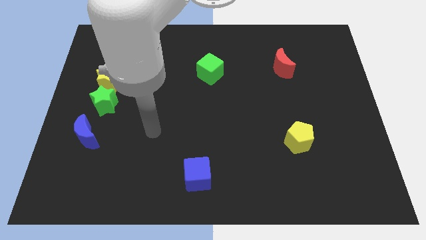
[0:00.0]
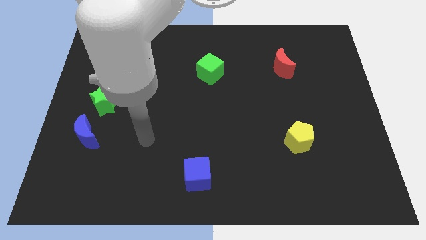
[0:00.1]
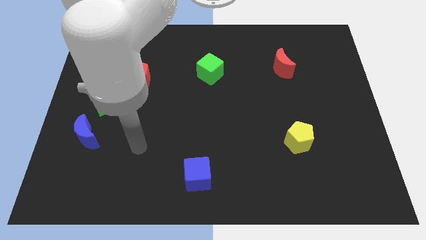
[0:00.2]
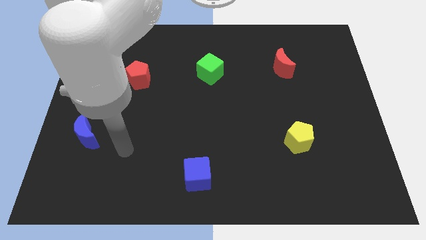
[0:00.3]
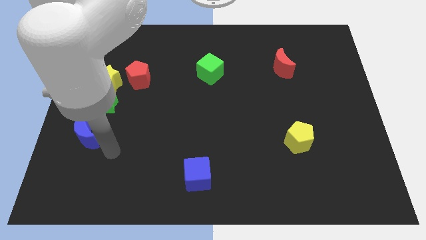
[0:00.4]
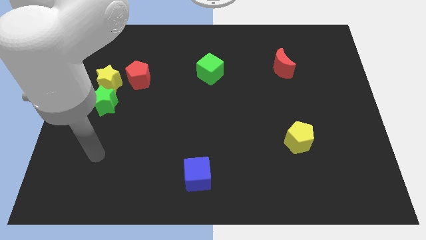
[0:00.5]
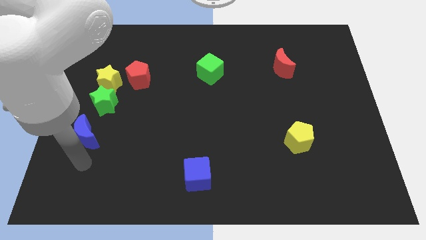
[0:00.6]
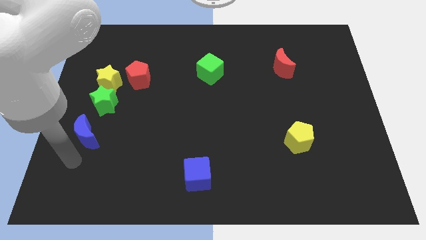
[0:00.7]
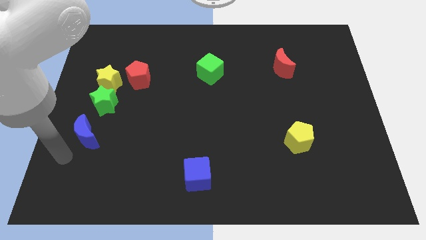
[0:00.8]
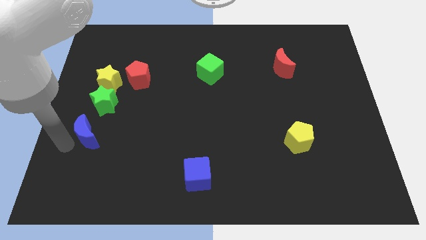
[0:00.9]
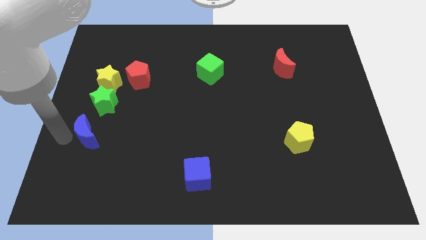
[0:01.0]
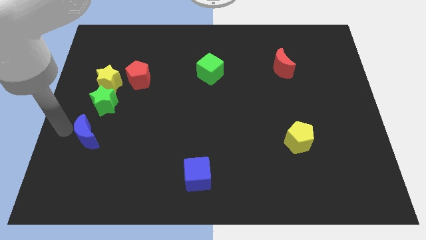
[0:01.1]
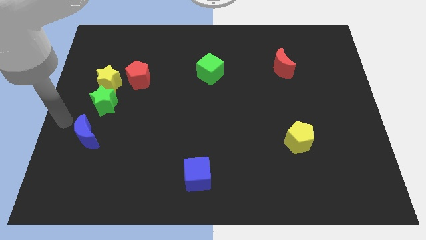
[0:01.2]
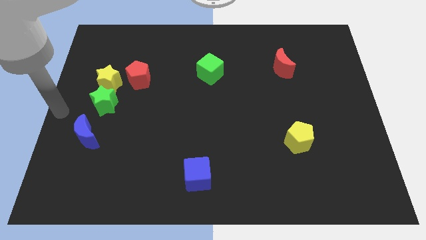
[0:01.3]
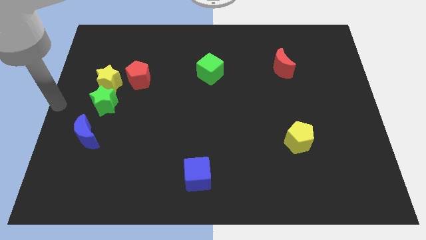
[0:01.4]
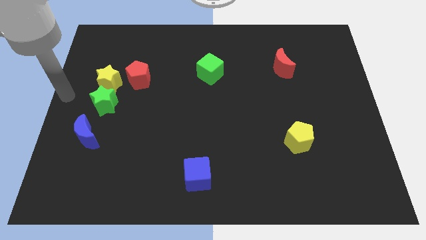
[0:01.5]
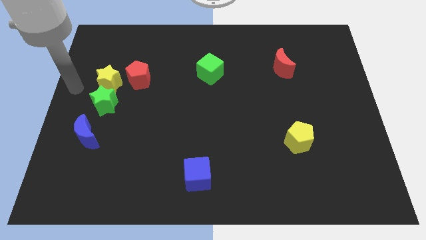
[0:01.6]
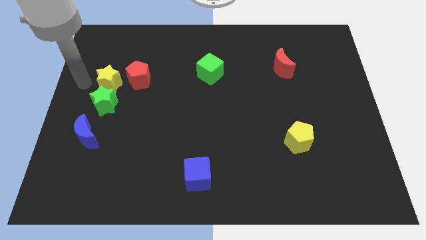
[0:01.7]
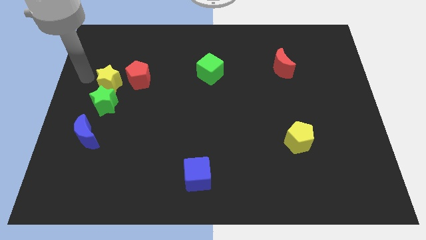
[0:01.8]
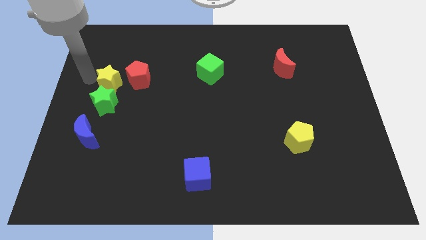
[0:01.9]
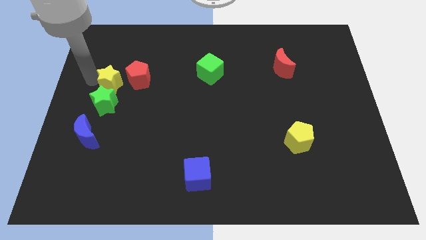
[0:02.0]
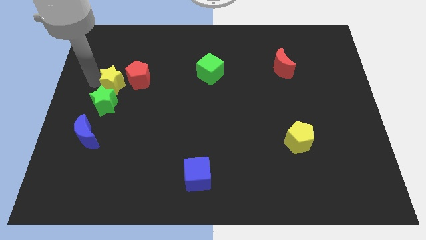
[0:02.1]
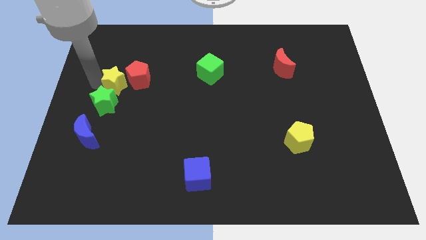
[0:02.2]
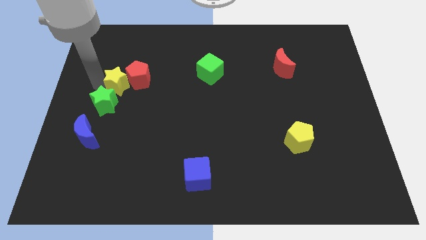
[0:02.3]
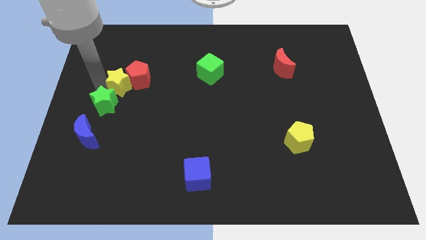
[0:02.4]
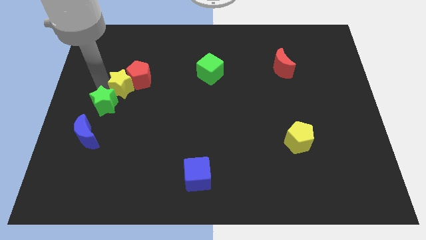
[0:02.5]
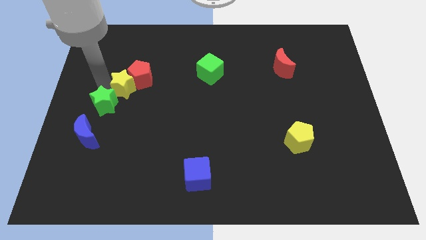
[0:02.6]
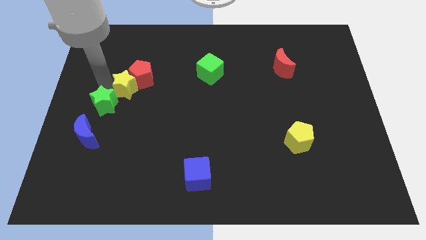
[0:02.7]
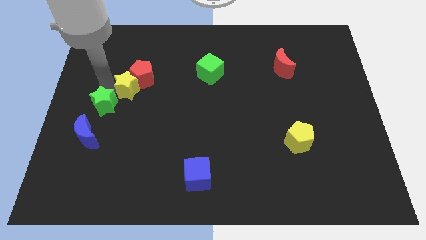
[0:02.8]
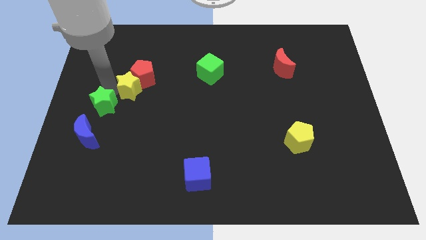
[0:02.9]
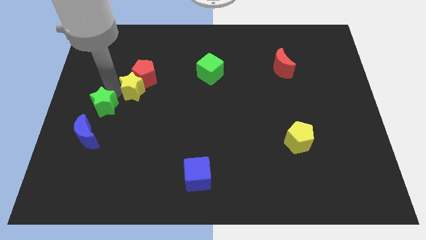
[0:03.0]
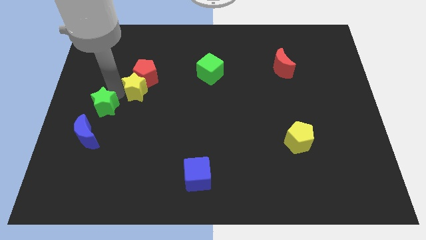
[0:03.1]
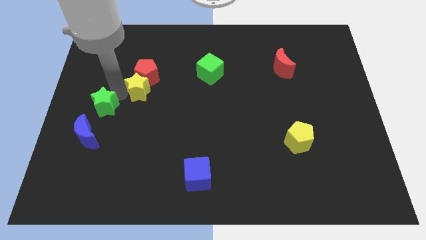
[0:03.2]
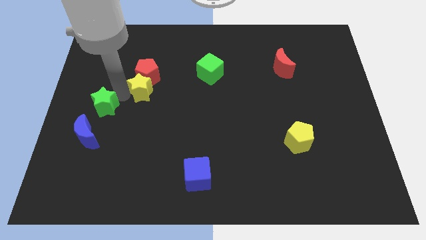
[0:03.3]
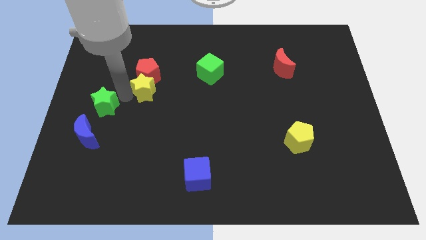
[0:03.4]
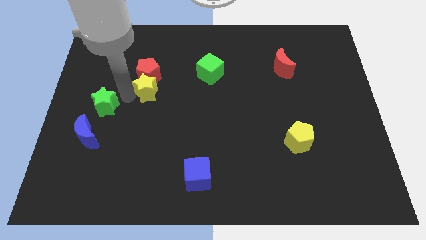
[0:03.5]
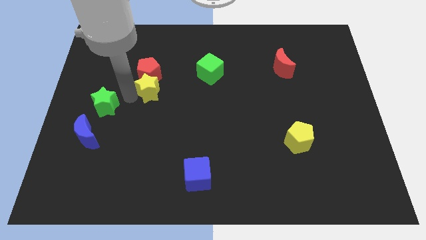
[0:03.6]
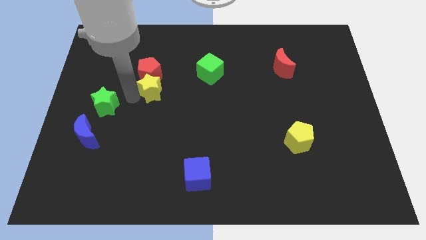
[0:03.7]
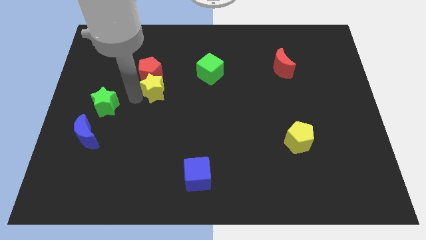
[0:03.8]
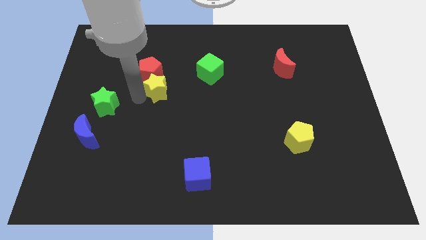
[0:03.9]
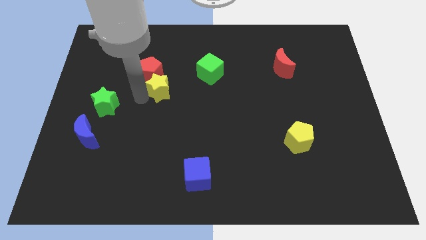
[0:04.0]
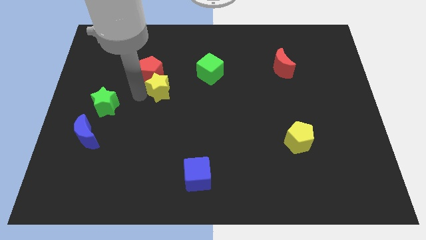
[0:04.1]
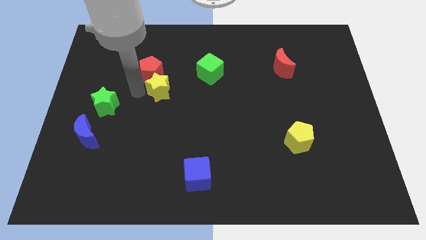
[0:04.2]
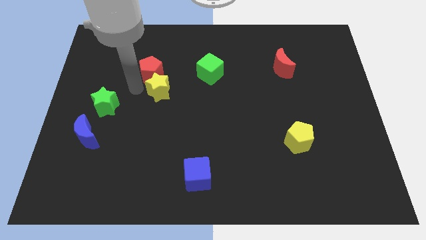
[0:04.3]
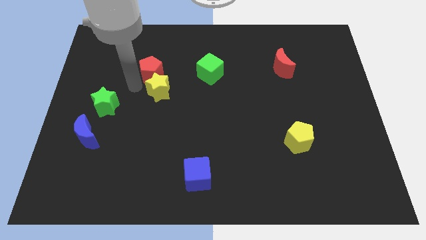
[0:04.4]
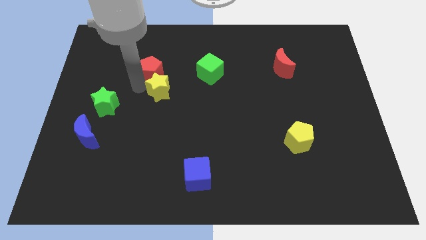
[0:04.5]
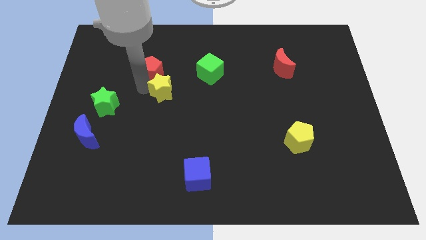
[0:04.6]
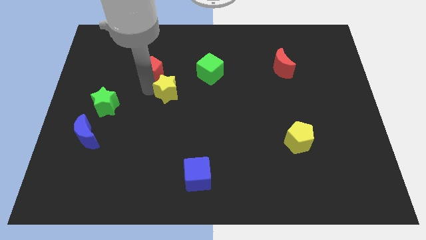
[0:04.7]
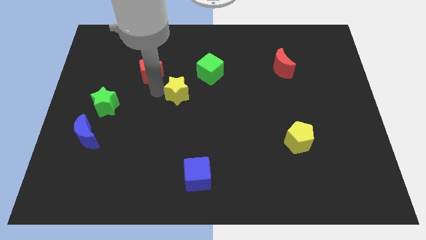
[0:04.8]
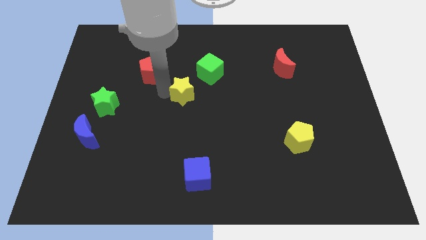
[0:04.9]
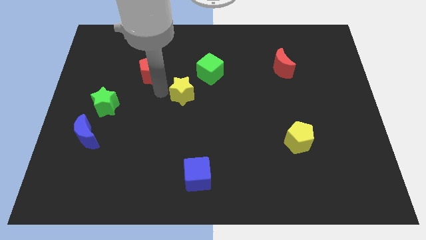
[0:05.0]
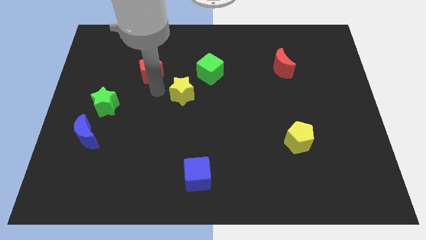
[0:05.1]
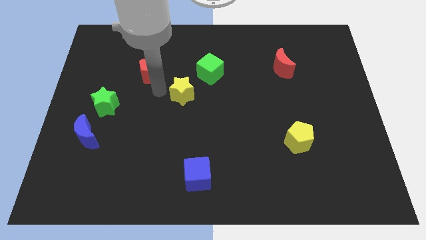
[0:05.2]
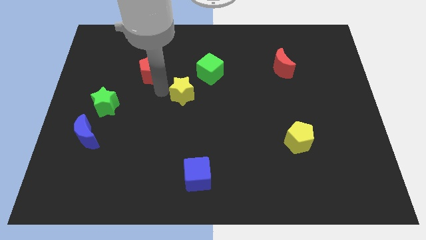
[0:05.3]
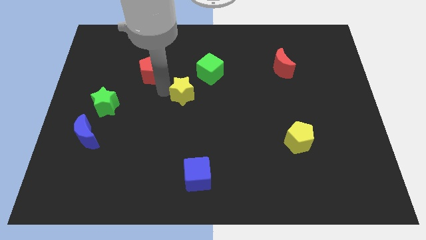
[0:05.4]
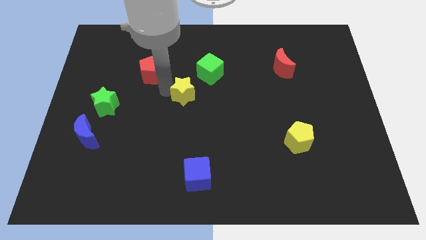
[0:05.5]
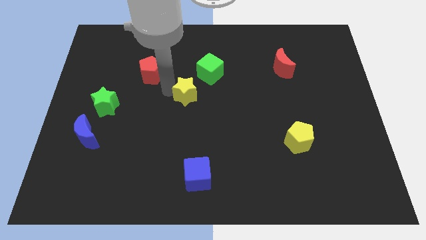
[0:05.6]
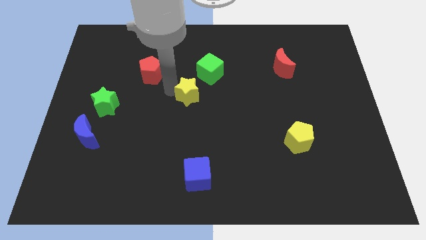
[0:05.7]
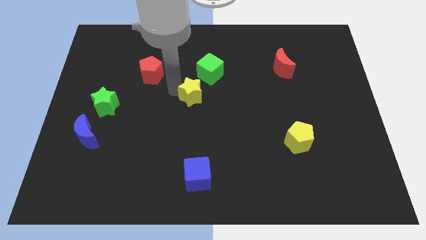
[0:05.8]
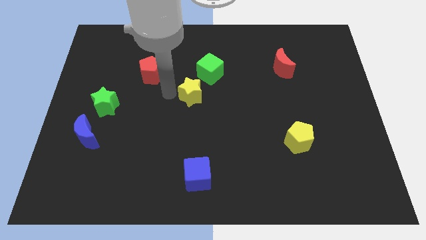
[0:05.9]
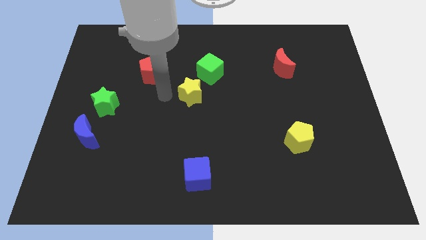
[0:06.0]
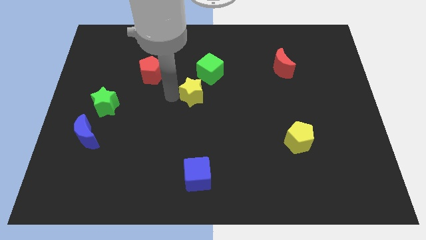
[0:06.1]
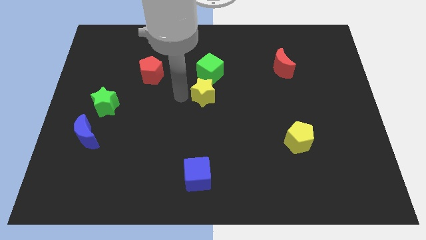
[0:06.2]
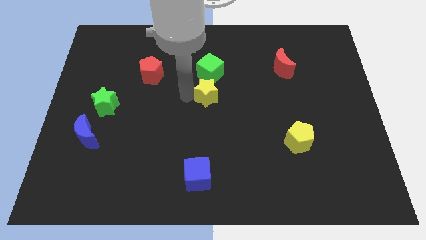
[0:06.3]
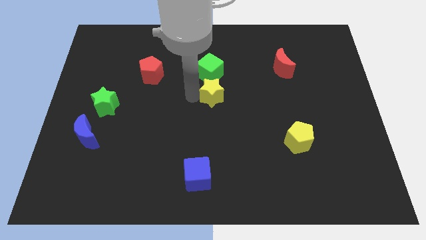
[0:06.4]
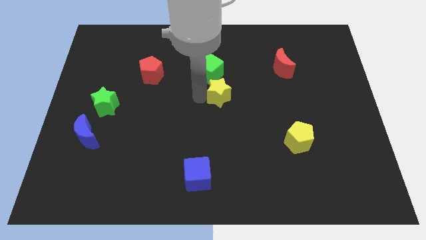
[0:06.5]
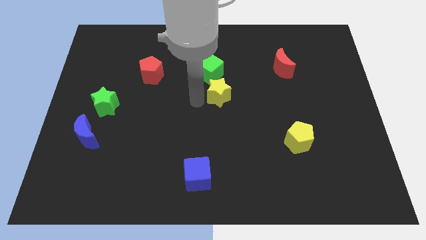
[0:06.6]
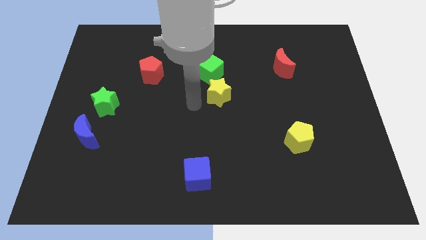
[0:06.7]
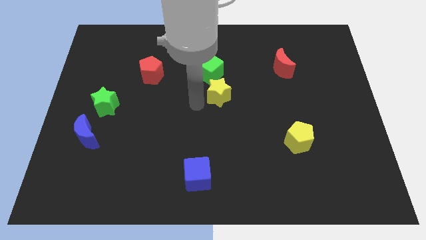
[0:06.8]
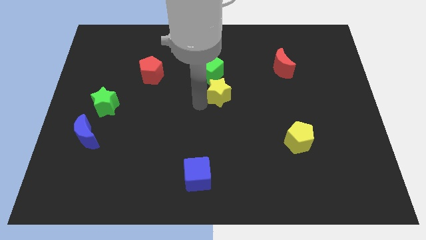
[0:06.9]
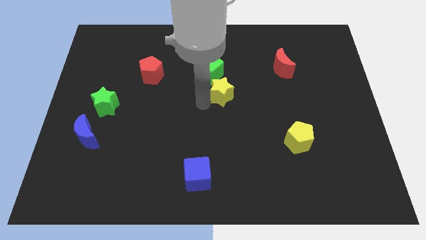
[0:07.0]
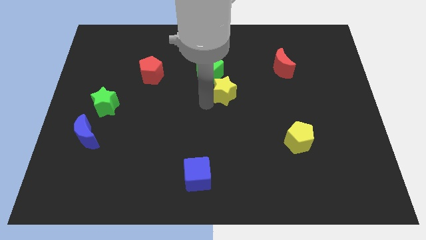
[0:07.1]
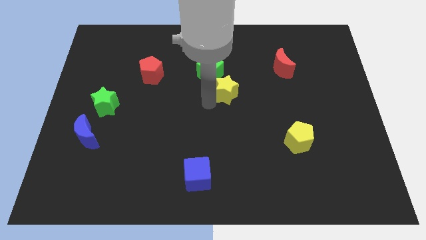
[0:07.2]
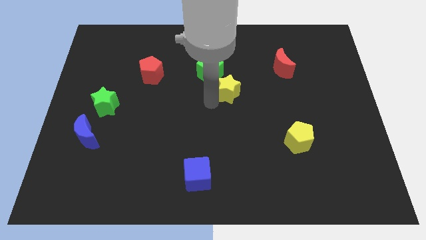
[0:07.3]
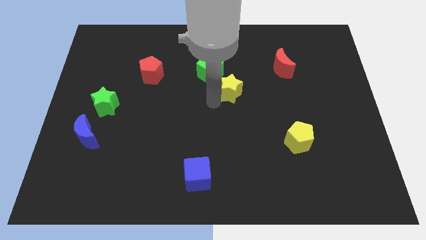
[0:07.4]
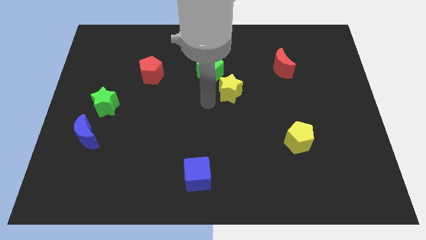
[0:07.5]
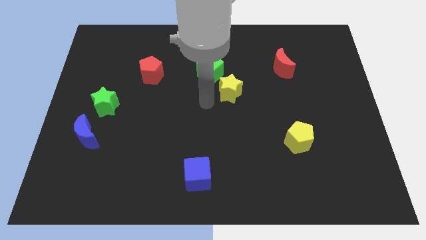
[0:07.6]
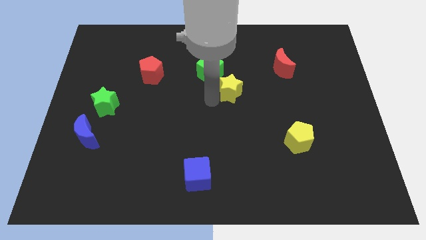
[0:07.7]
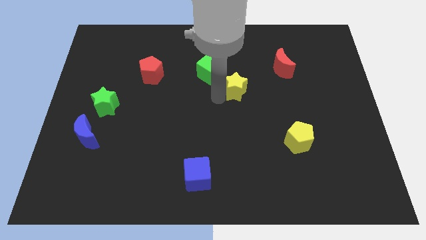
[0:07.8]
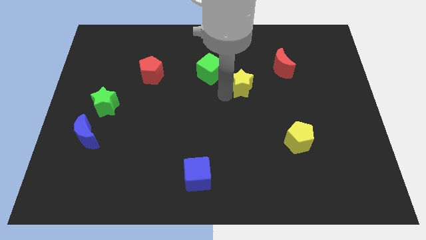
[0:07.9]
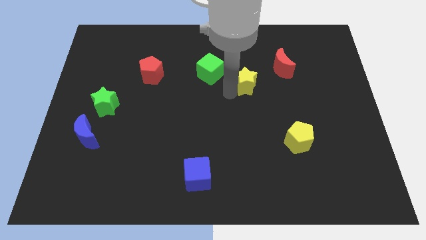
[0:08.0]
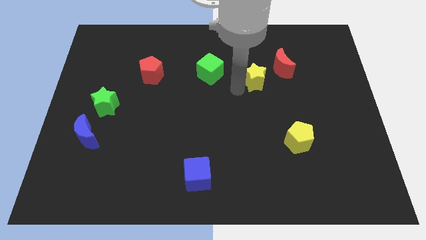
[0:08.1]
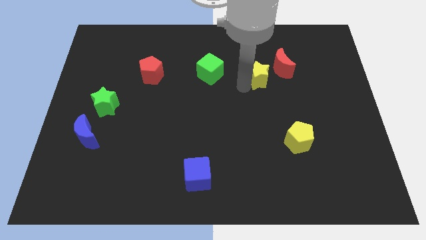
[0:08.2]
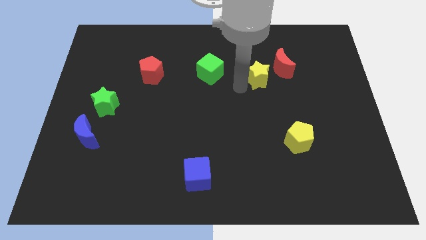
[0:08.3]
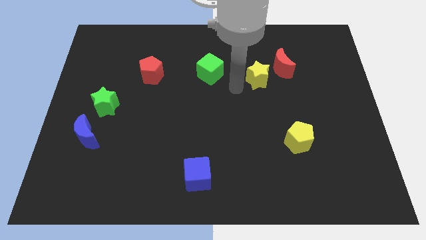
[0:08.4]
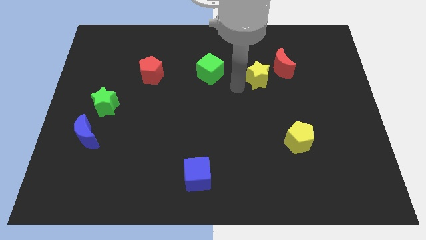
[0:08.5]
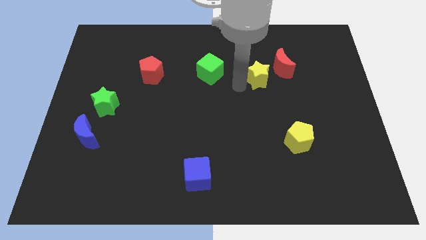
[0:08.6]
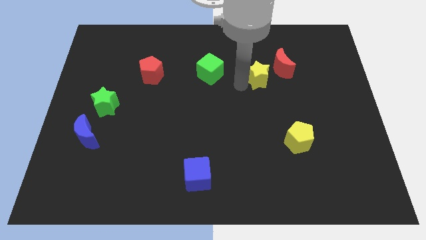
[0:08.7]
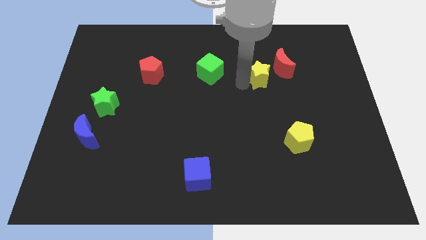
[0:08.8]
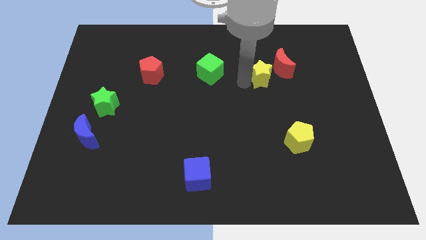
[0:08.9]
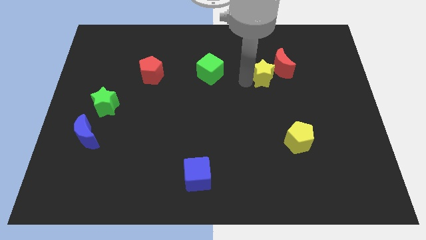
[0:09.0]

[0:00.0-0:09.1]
move the yellow star next to the red moon
